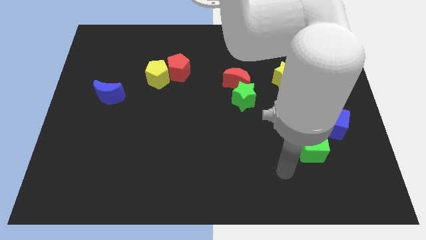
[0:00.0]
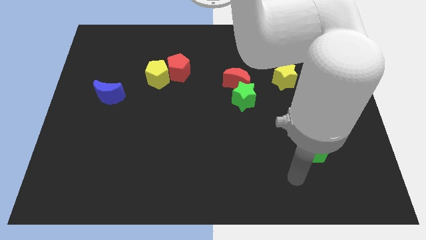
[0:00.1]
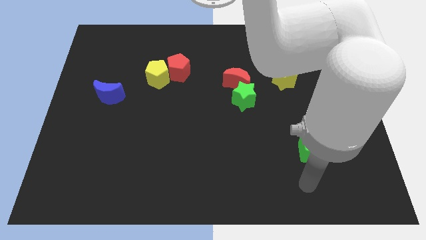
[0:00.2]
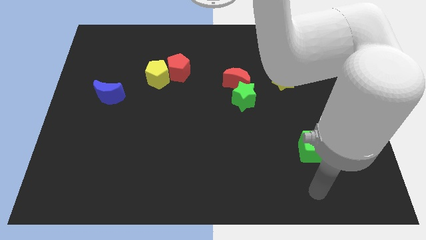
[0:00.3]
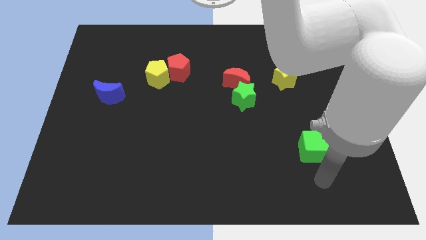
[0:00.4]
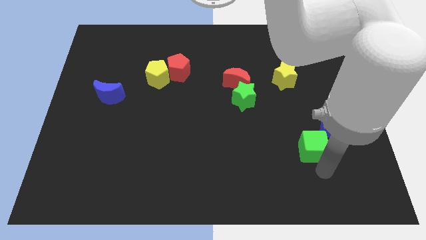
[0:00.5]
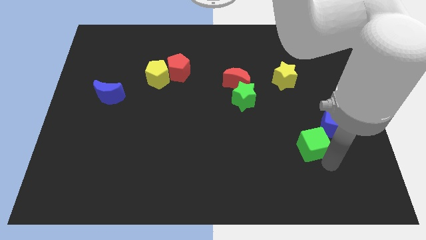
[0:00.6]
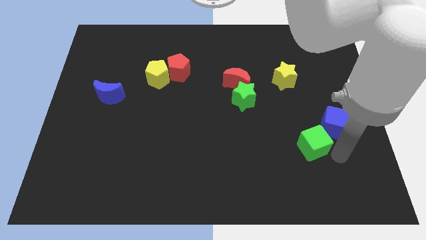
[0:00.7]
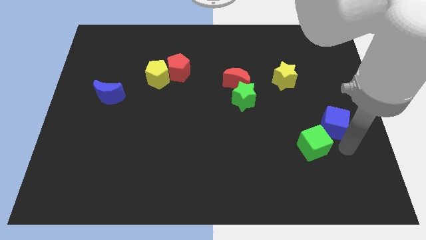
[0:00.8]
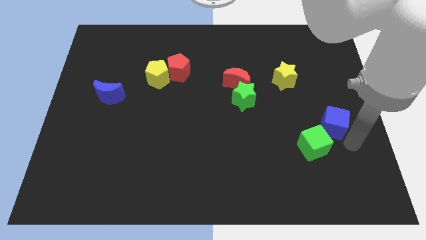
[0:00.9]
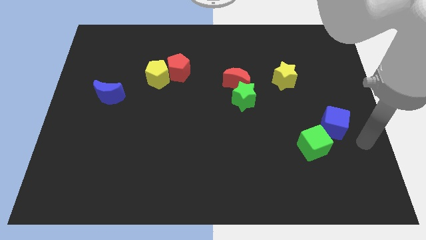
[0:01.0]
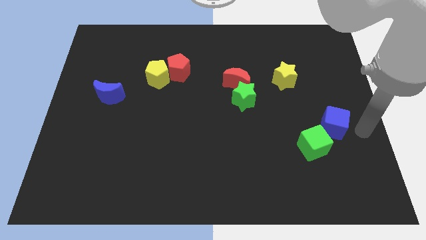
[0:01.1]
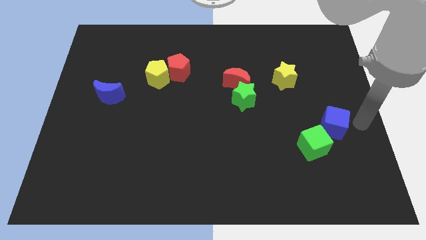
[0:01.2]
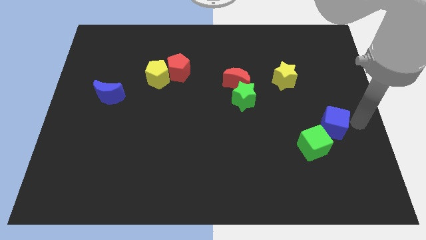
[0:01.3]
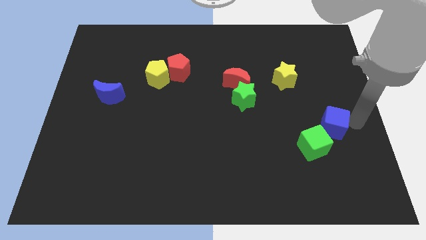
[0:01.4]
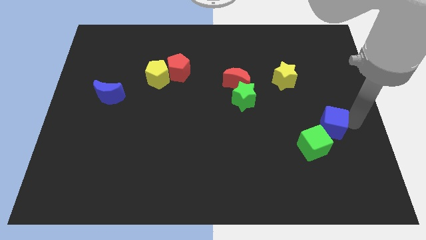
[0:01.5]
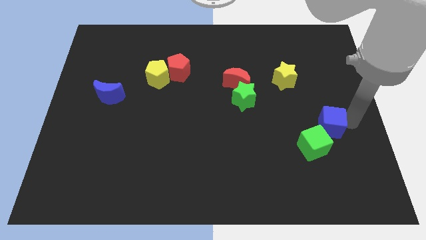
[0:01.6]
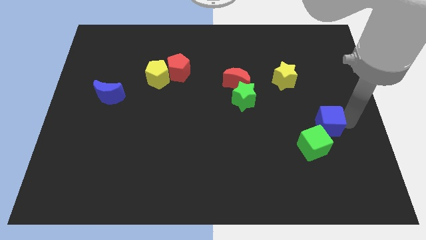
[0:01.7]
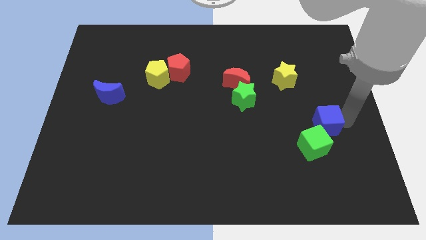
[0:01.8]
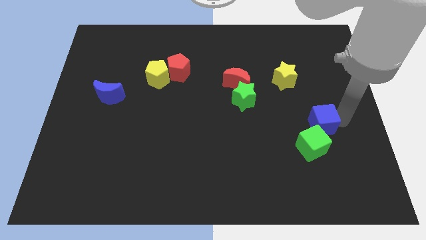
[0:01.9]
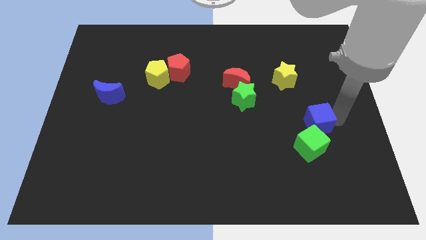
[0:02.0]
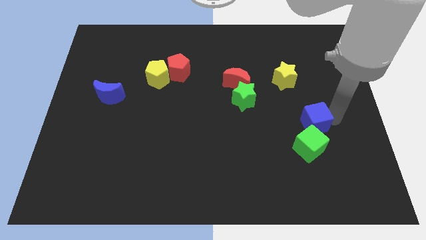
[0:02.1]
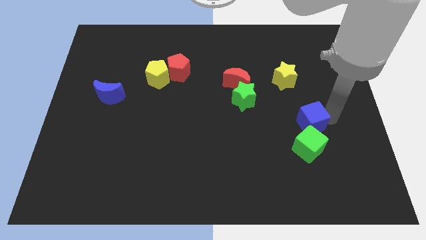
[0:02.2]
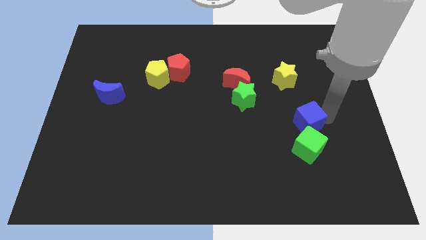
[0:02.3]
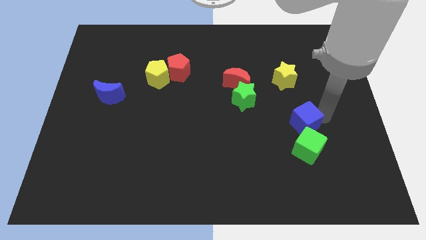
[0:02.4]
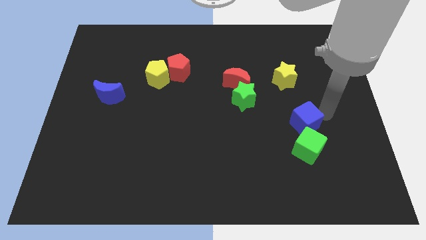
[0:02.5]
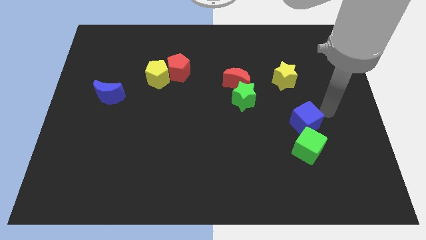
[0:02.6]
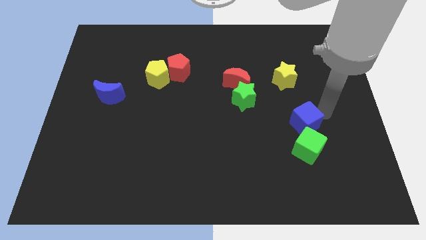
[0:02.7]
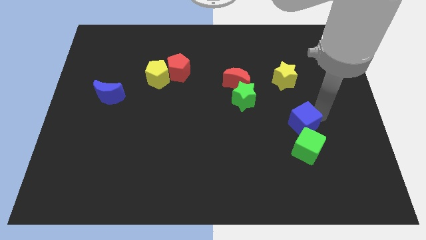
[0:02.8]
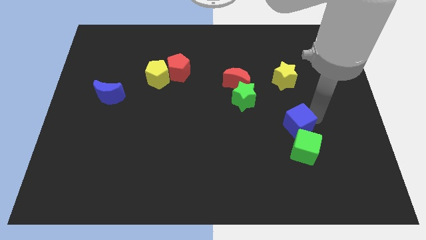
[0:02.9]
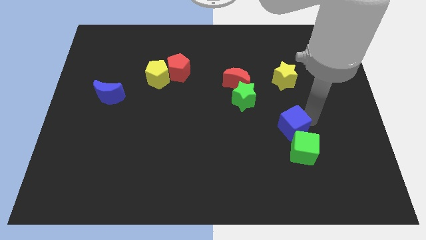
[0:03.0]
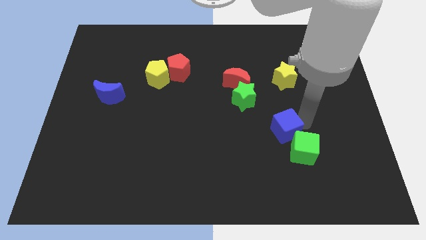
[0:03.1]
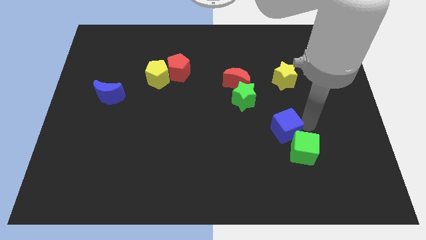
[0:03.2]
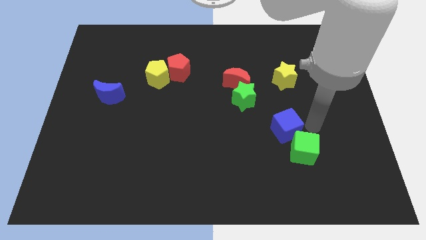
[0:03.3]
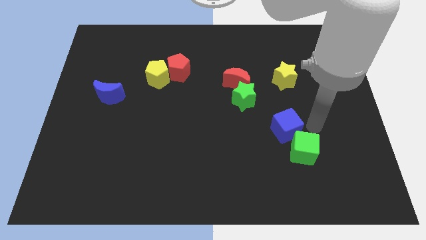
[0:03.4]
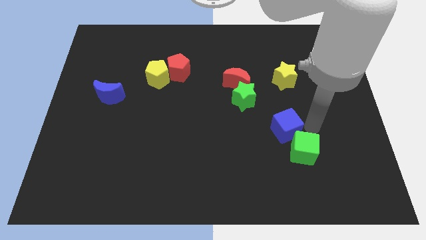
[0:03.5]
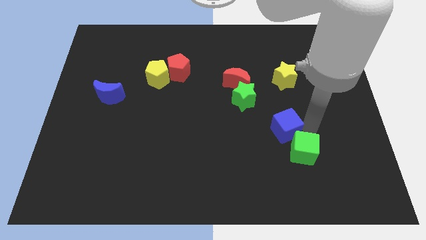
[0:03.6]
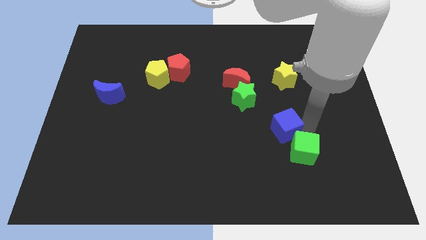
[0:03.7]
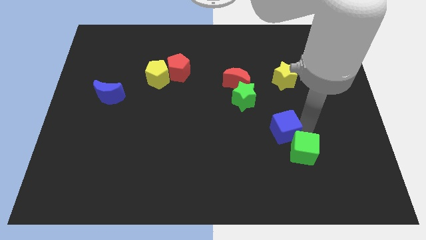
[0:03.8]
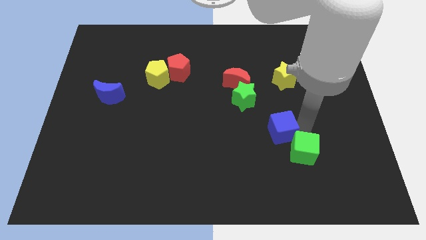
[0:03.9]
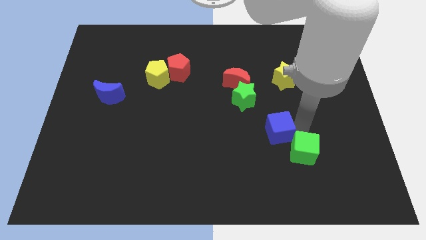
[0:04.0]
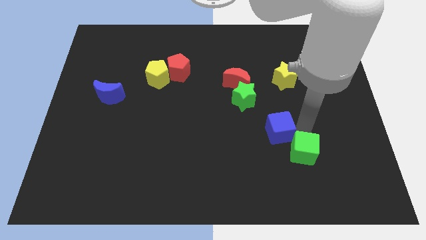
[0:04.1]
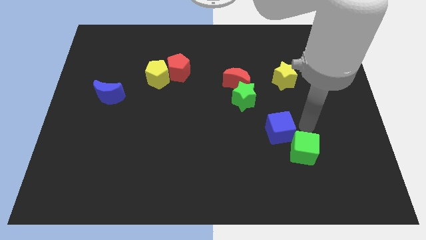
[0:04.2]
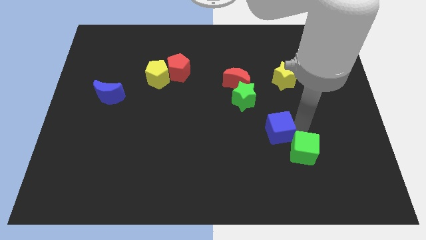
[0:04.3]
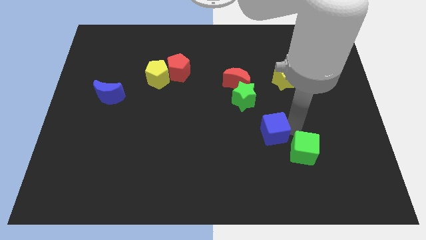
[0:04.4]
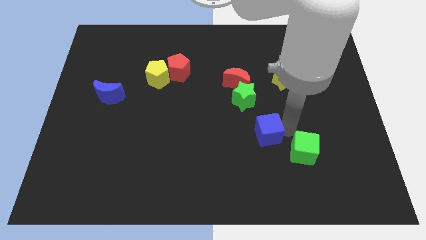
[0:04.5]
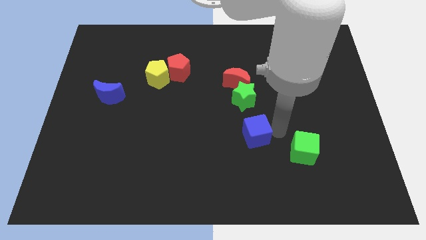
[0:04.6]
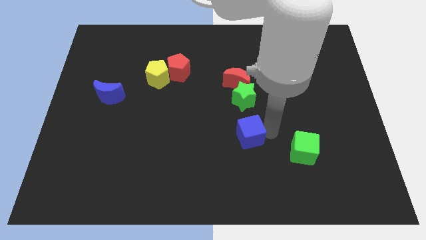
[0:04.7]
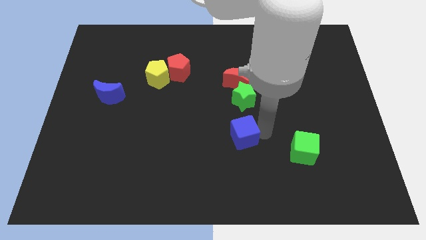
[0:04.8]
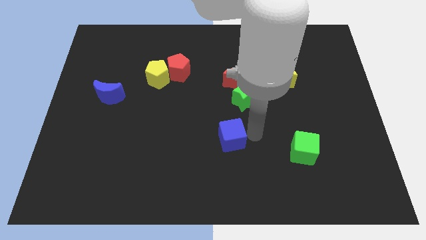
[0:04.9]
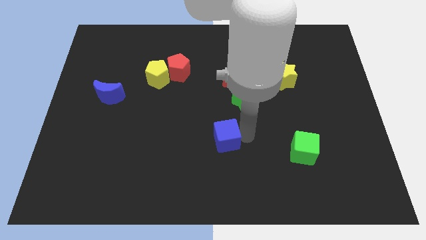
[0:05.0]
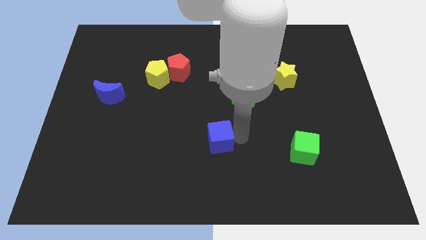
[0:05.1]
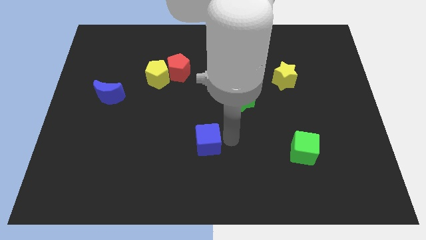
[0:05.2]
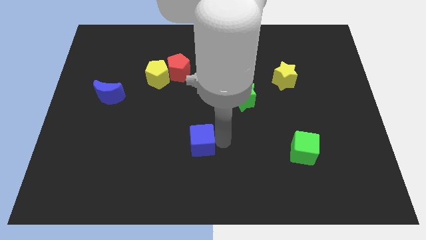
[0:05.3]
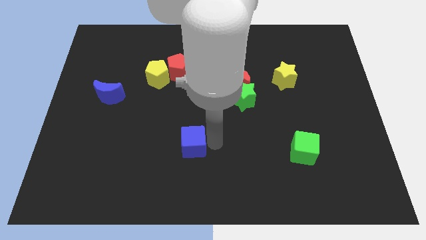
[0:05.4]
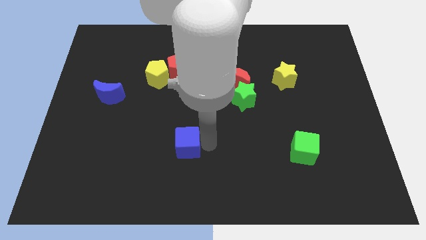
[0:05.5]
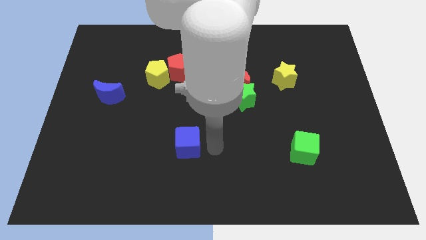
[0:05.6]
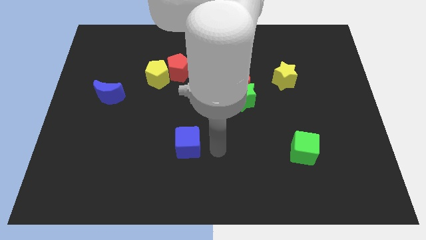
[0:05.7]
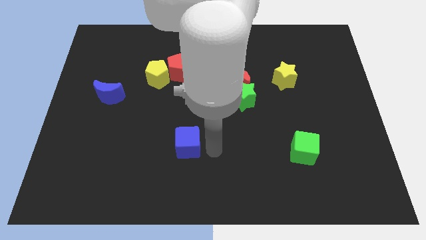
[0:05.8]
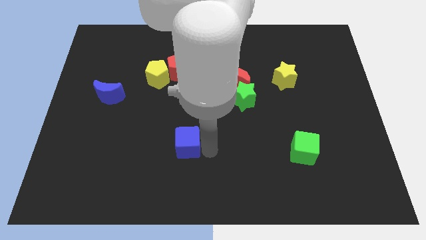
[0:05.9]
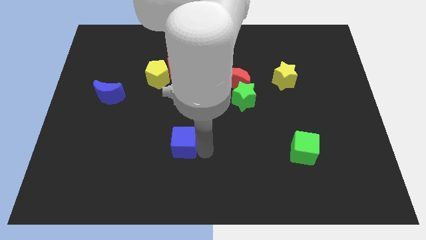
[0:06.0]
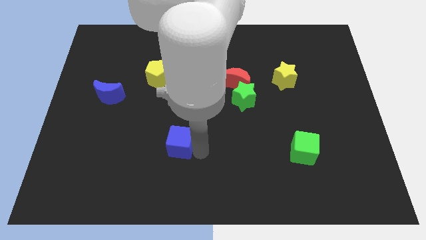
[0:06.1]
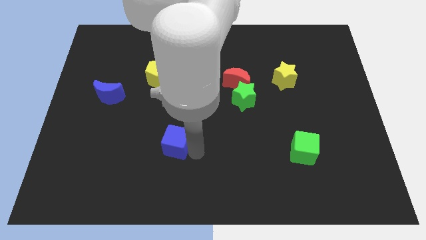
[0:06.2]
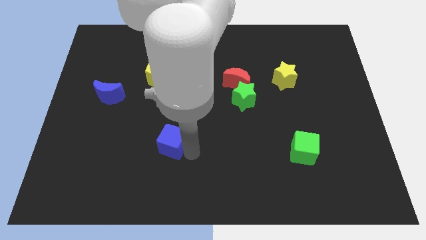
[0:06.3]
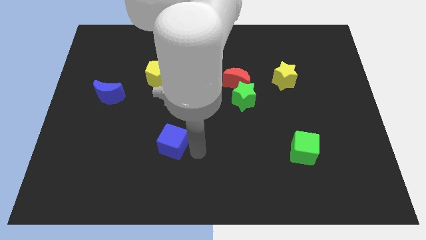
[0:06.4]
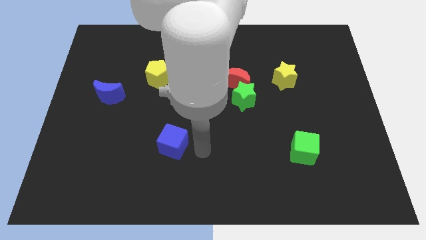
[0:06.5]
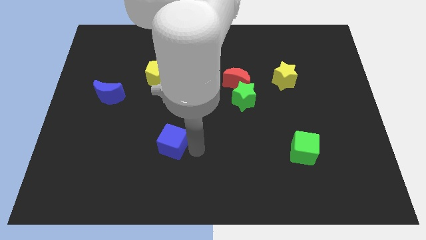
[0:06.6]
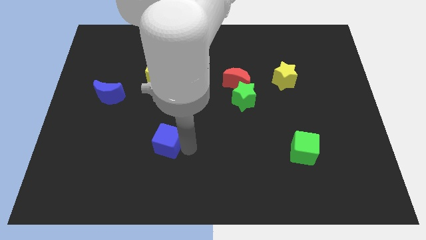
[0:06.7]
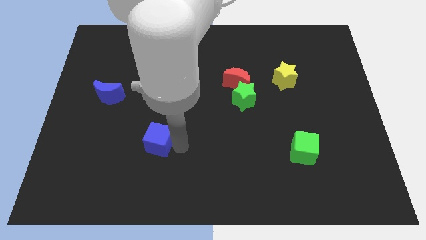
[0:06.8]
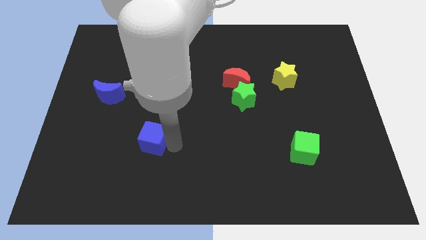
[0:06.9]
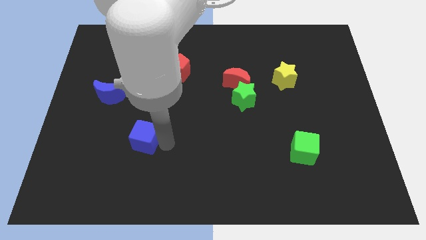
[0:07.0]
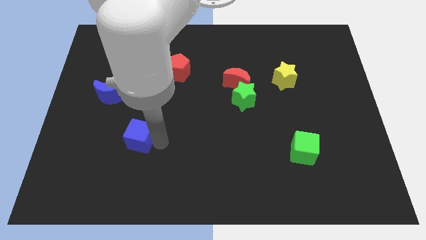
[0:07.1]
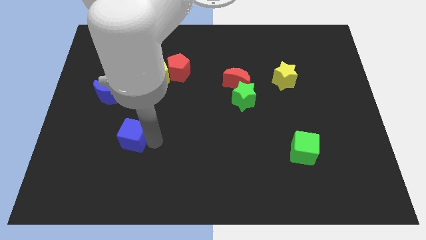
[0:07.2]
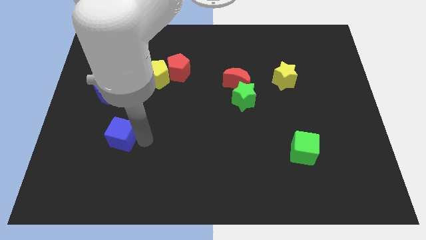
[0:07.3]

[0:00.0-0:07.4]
put the blue cube to the bottom of the blue moon
